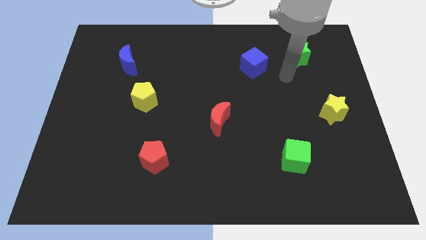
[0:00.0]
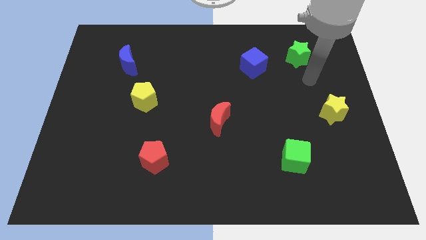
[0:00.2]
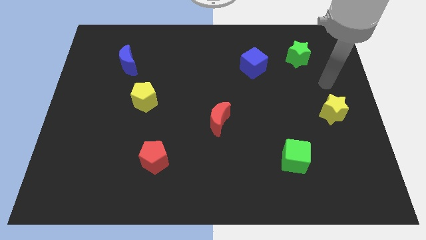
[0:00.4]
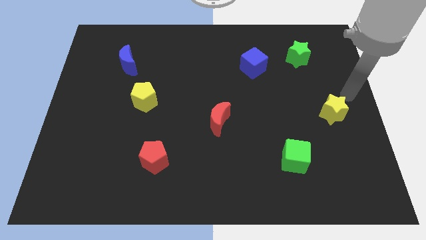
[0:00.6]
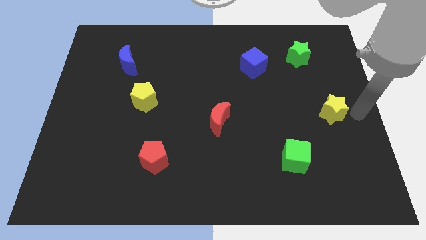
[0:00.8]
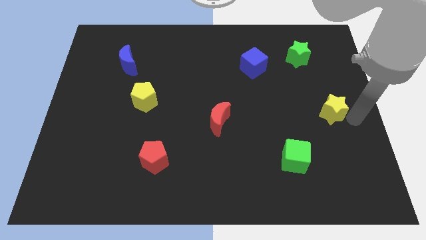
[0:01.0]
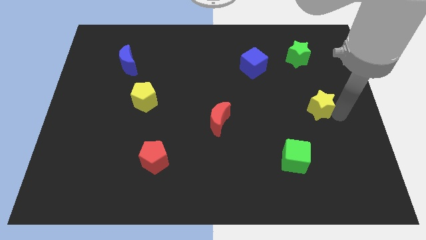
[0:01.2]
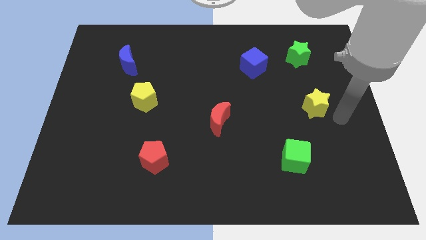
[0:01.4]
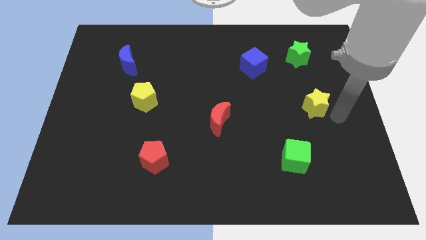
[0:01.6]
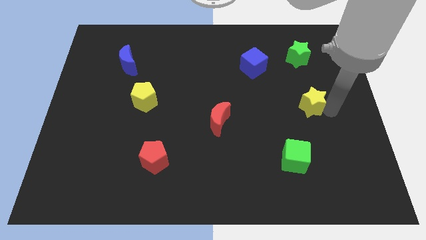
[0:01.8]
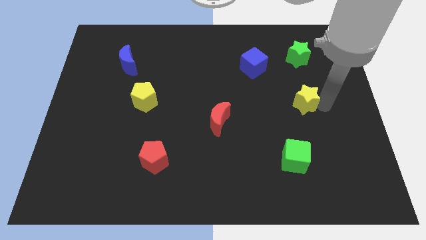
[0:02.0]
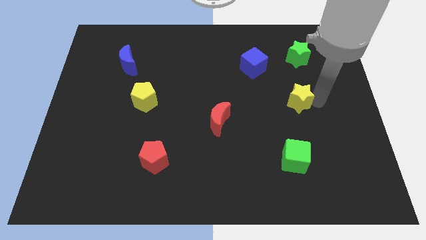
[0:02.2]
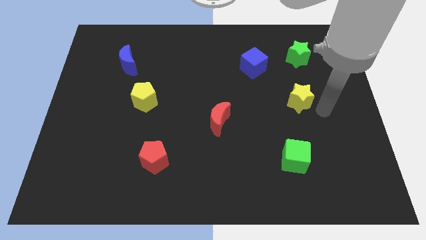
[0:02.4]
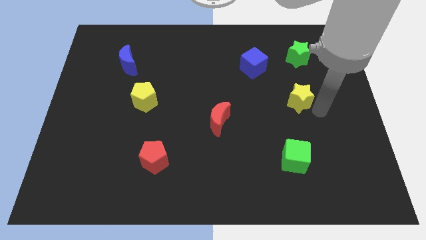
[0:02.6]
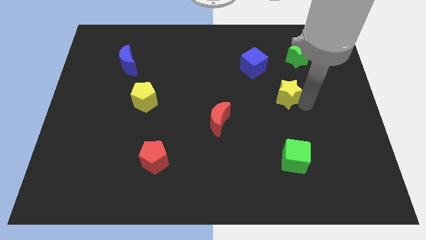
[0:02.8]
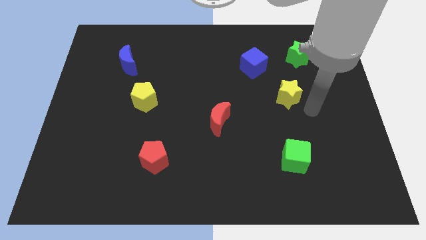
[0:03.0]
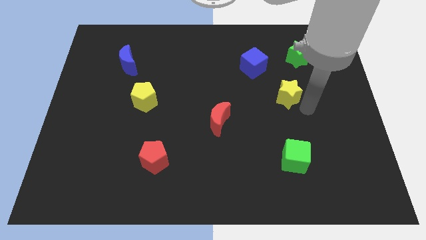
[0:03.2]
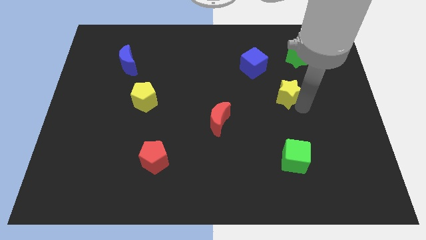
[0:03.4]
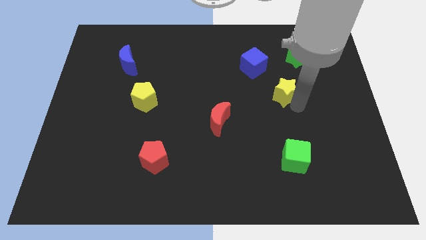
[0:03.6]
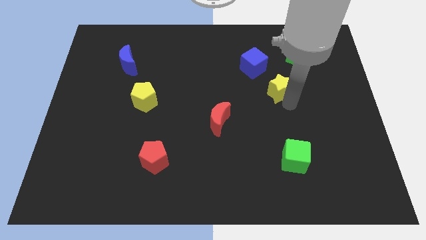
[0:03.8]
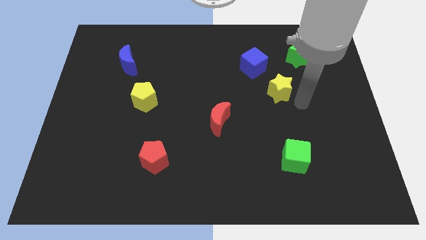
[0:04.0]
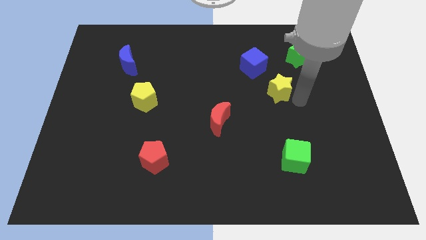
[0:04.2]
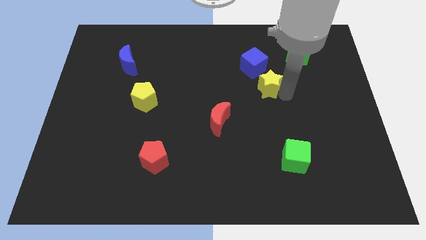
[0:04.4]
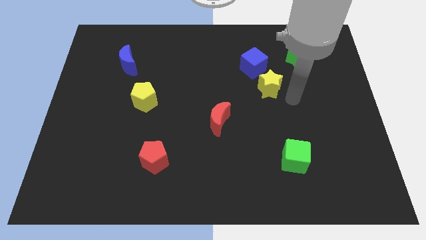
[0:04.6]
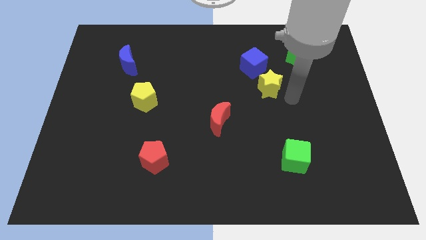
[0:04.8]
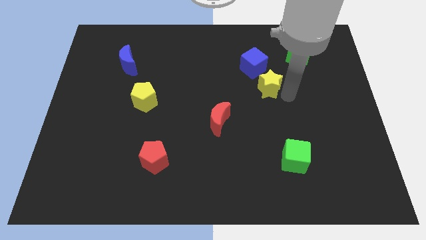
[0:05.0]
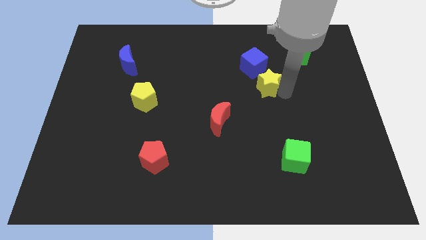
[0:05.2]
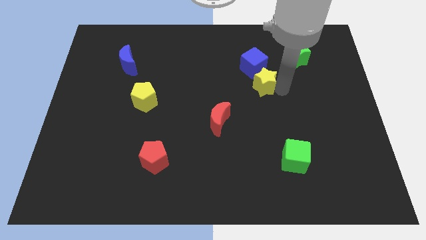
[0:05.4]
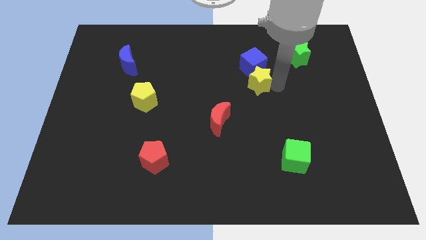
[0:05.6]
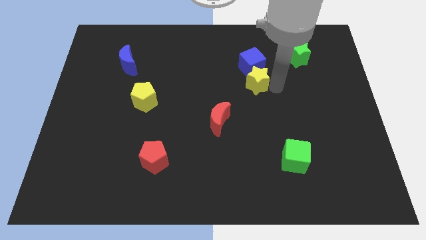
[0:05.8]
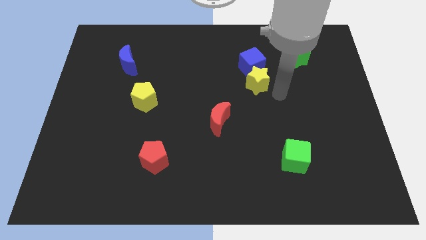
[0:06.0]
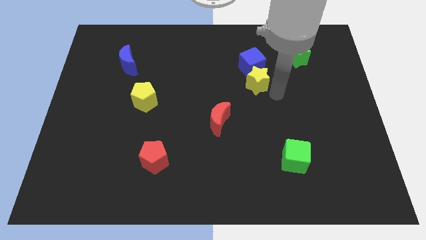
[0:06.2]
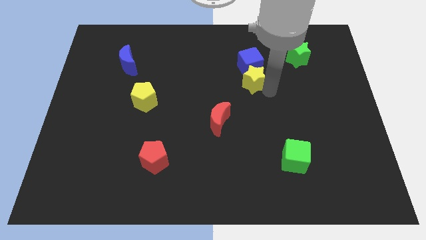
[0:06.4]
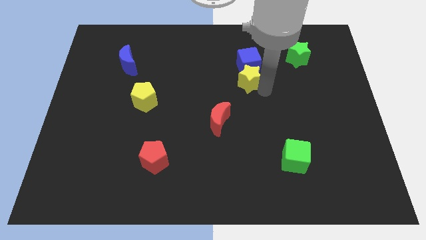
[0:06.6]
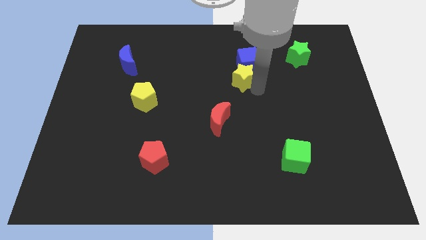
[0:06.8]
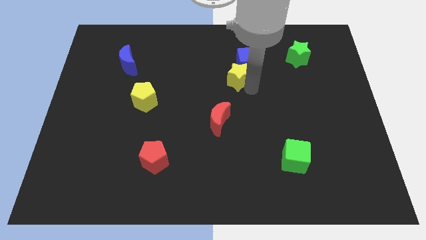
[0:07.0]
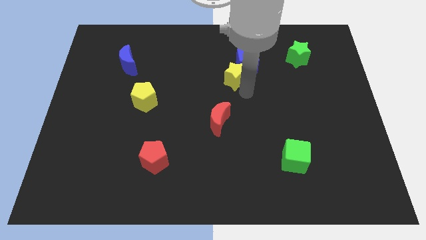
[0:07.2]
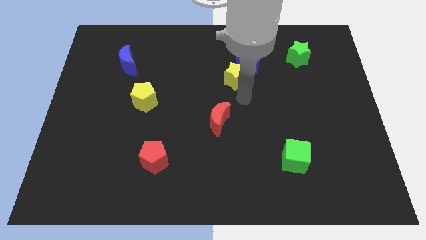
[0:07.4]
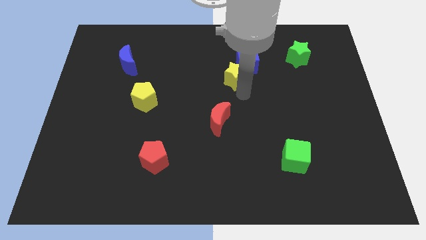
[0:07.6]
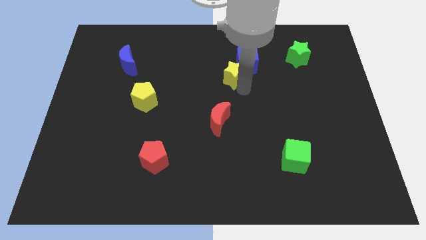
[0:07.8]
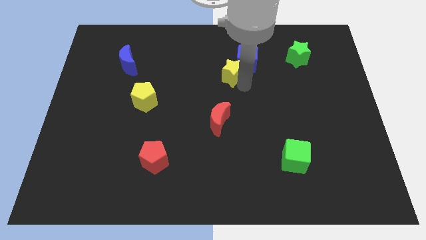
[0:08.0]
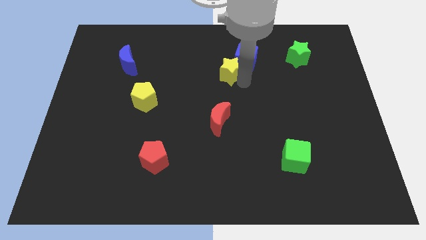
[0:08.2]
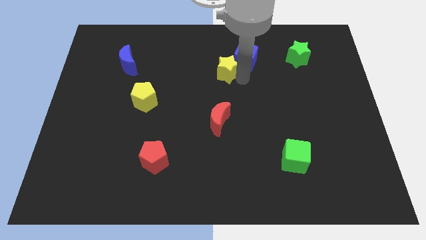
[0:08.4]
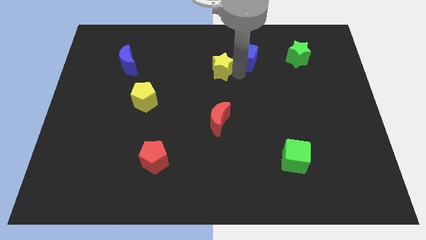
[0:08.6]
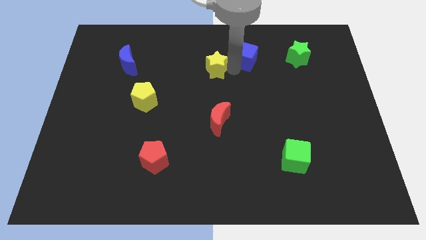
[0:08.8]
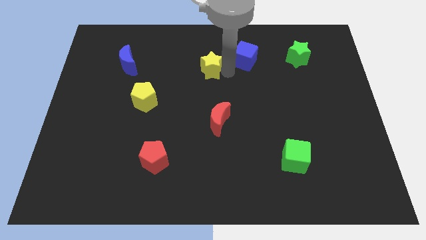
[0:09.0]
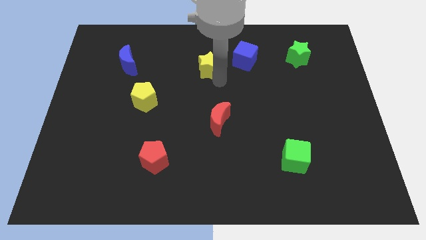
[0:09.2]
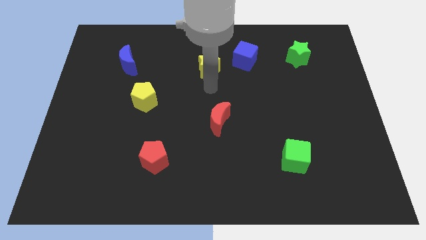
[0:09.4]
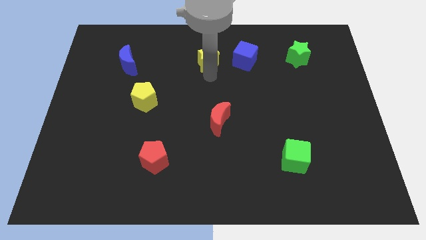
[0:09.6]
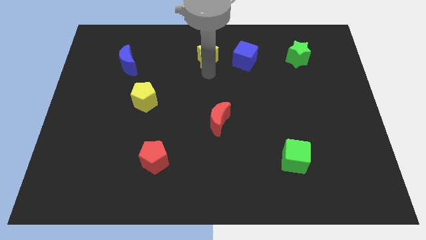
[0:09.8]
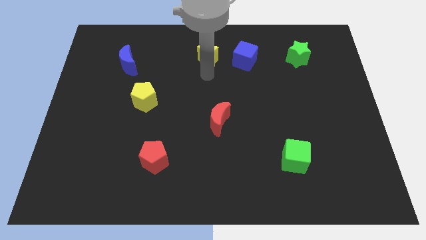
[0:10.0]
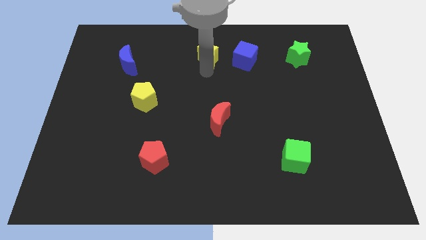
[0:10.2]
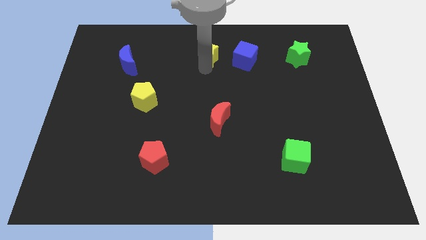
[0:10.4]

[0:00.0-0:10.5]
put the yellow star to the top side
